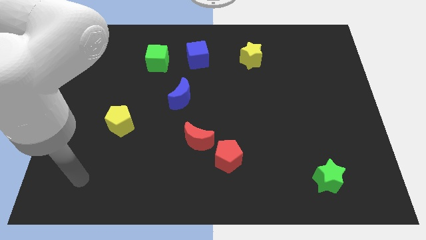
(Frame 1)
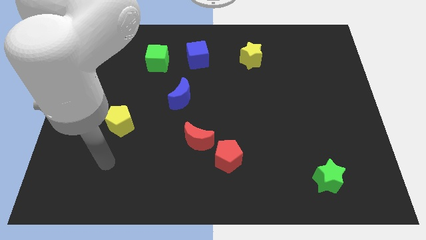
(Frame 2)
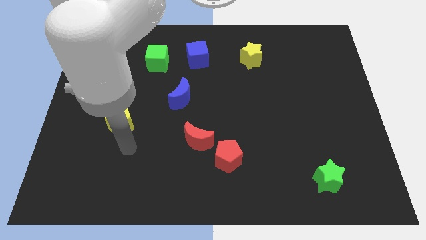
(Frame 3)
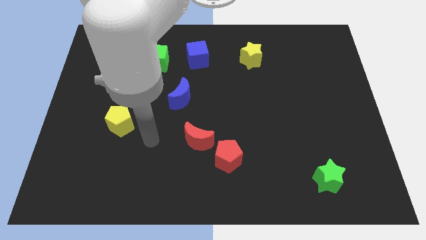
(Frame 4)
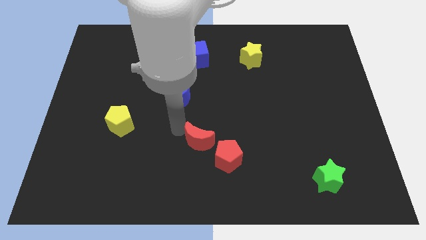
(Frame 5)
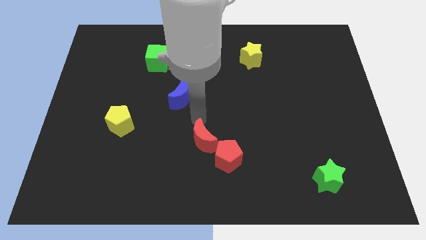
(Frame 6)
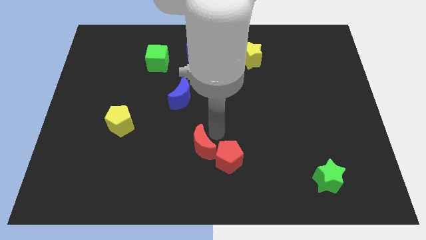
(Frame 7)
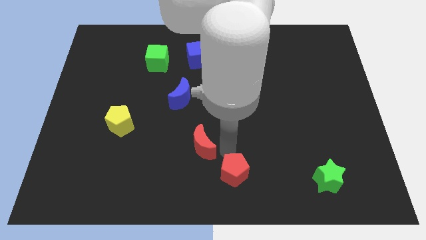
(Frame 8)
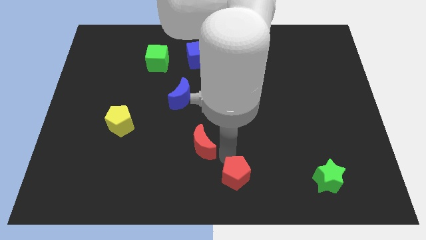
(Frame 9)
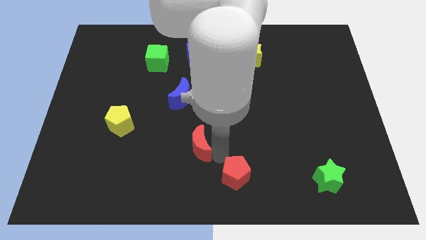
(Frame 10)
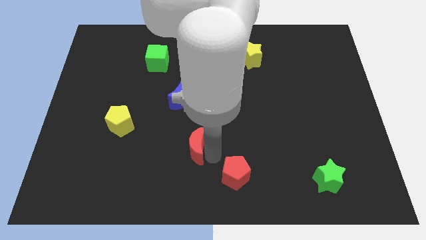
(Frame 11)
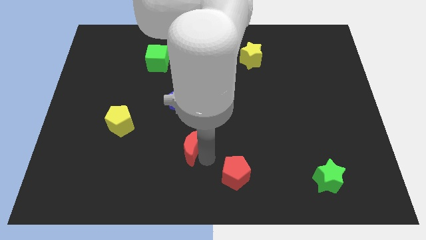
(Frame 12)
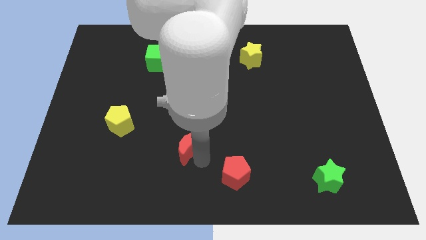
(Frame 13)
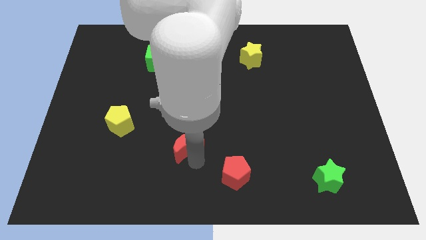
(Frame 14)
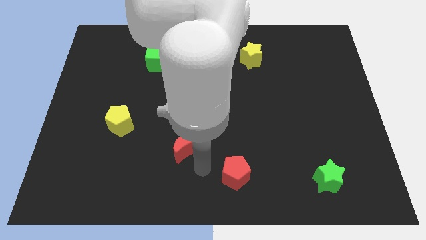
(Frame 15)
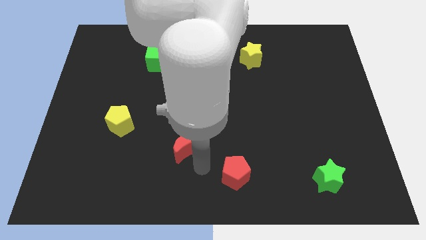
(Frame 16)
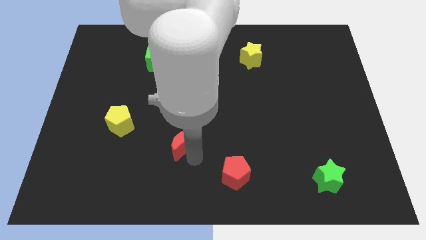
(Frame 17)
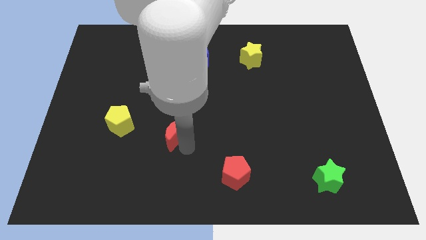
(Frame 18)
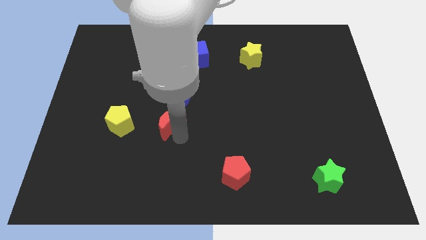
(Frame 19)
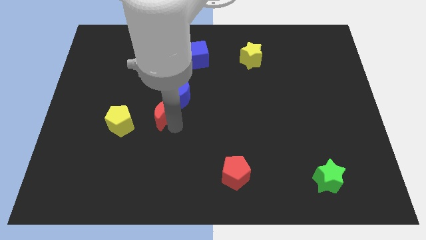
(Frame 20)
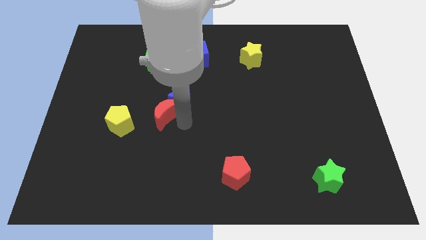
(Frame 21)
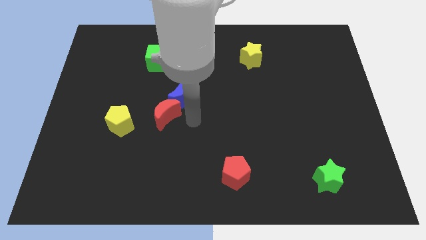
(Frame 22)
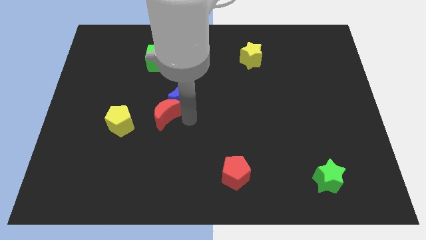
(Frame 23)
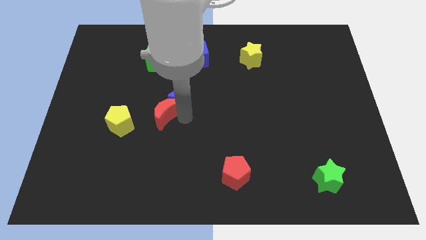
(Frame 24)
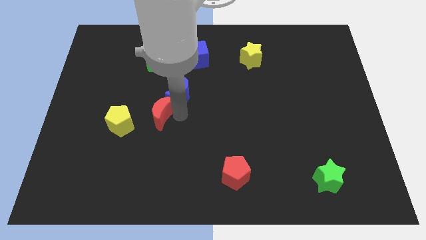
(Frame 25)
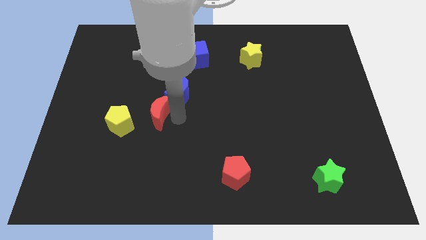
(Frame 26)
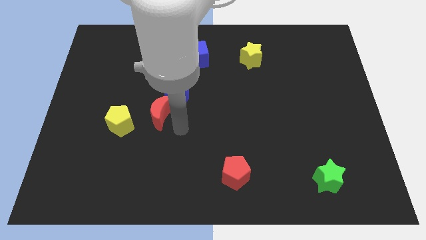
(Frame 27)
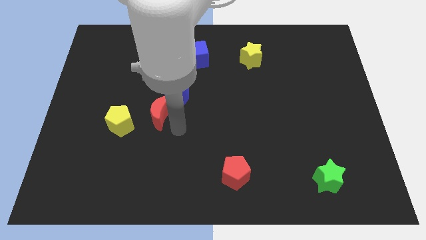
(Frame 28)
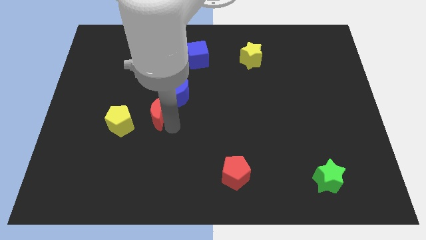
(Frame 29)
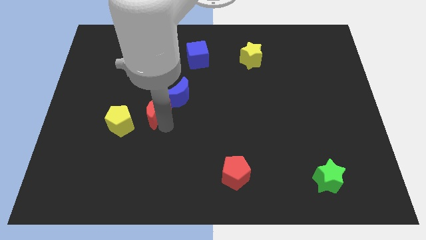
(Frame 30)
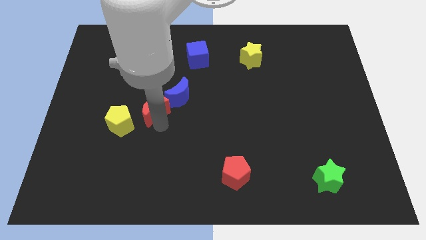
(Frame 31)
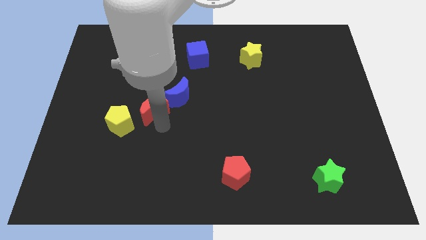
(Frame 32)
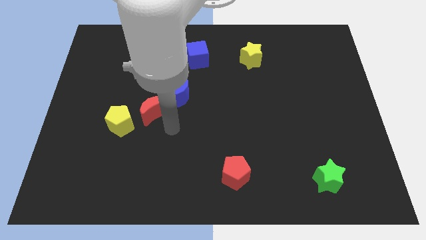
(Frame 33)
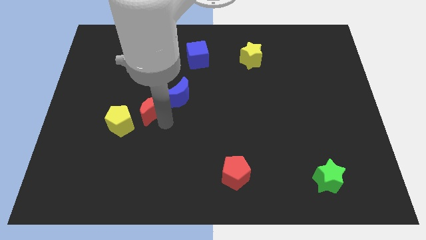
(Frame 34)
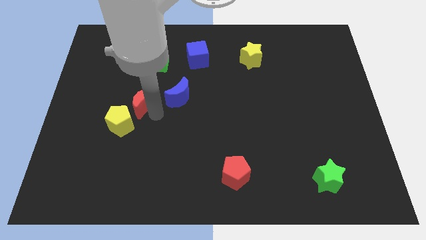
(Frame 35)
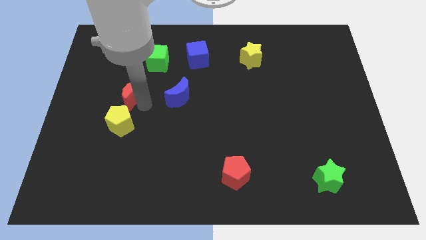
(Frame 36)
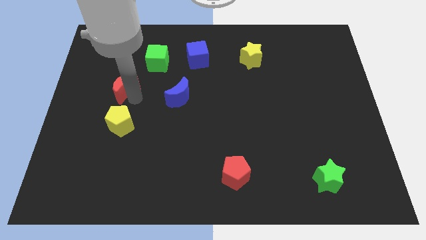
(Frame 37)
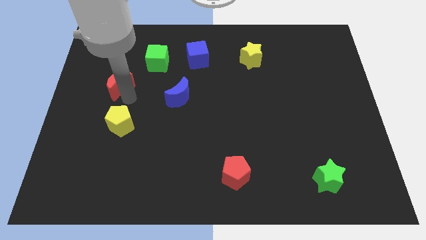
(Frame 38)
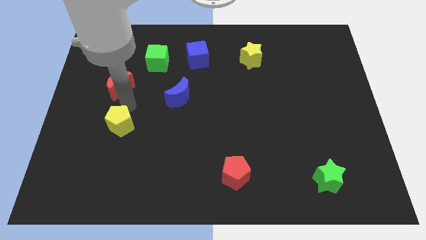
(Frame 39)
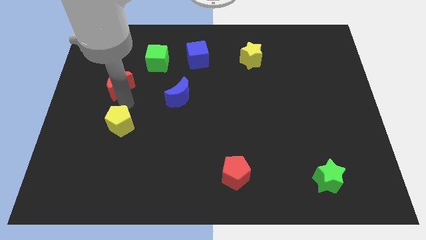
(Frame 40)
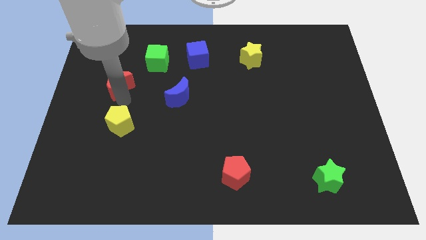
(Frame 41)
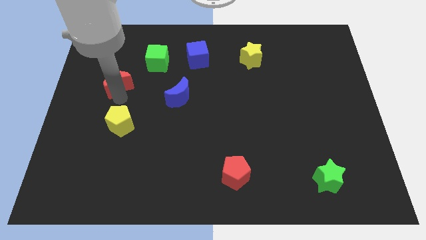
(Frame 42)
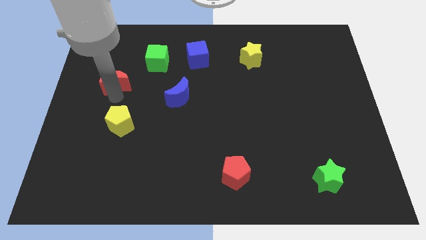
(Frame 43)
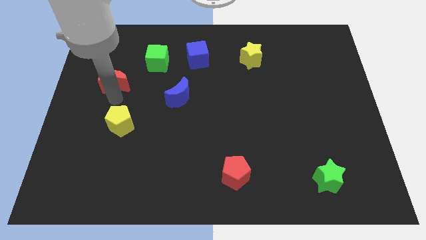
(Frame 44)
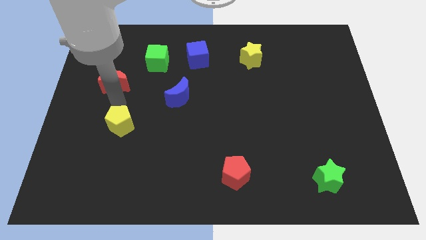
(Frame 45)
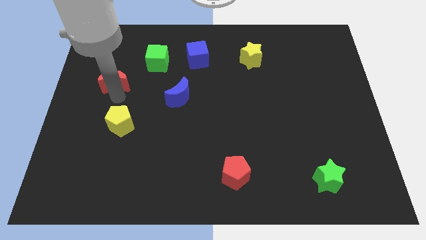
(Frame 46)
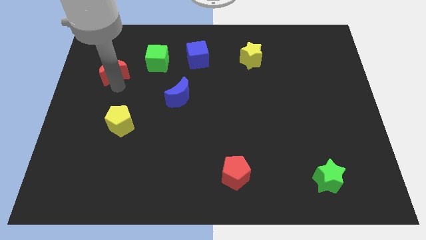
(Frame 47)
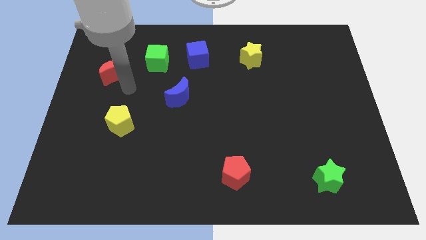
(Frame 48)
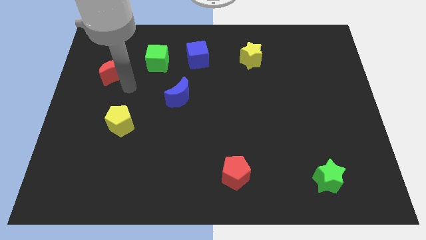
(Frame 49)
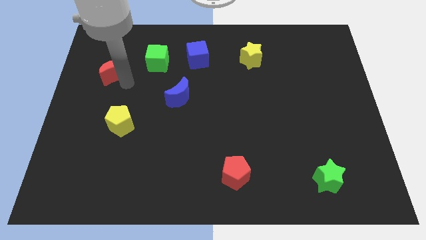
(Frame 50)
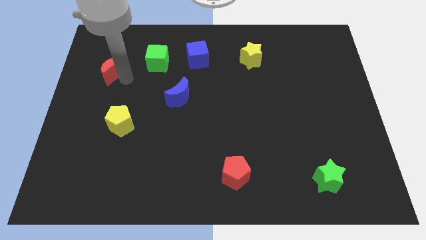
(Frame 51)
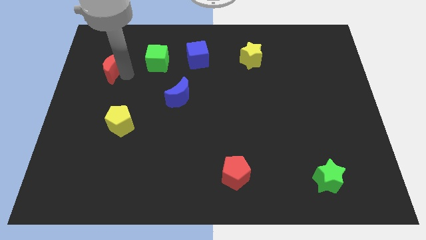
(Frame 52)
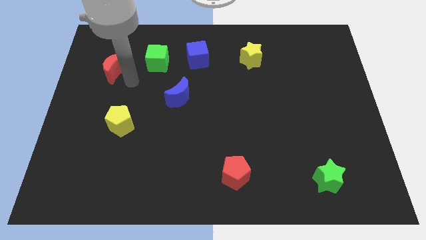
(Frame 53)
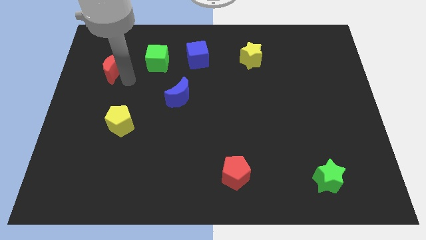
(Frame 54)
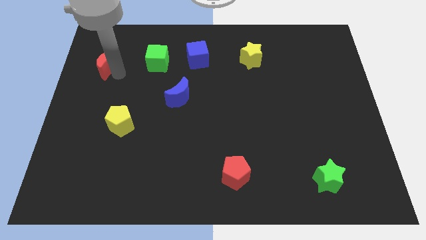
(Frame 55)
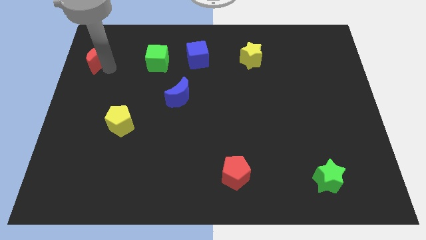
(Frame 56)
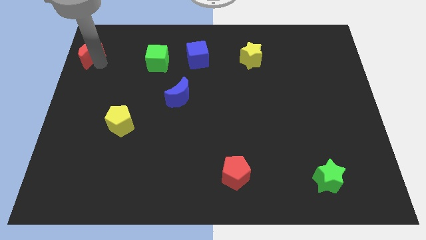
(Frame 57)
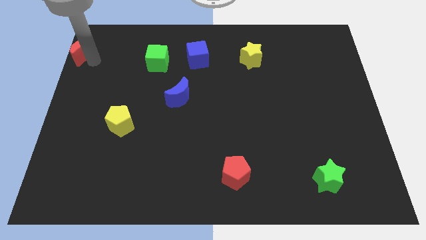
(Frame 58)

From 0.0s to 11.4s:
put the red moon to the top left corner

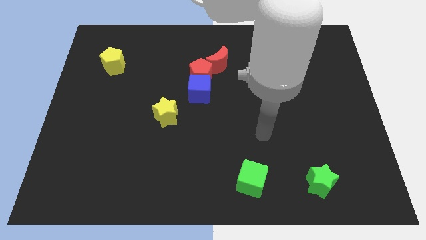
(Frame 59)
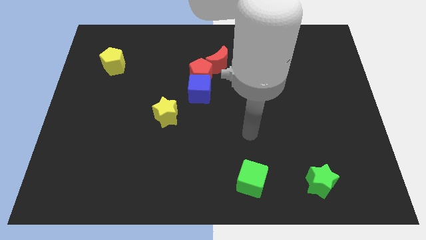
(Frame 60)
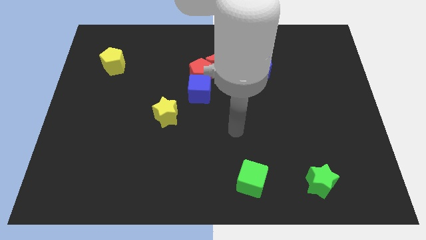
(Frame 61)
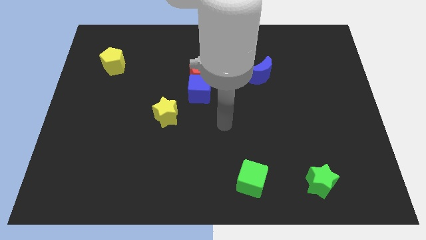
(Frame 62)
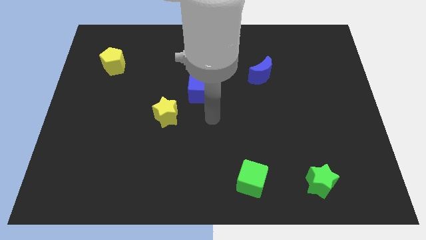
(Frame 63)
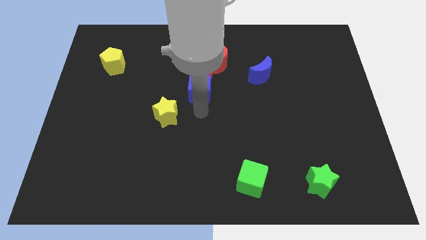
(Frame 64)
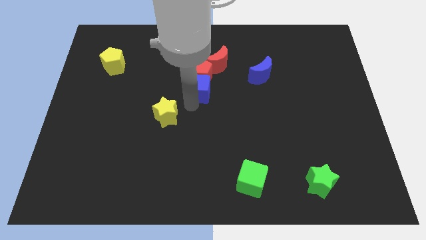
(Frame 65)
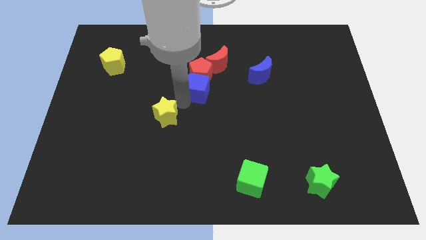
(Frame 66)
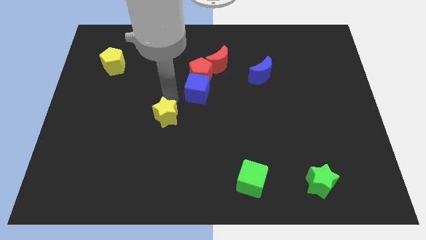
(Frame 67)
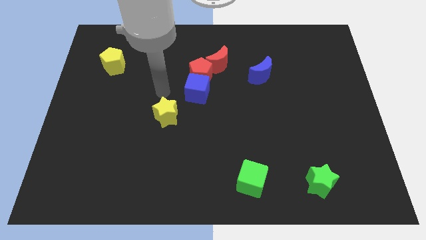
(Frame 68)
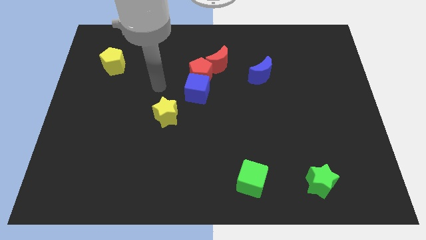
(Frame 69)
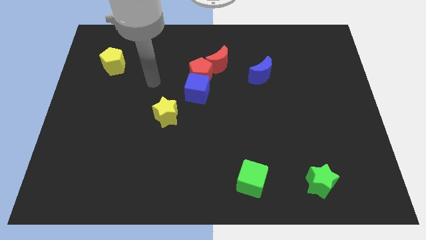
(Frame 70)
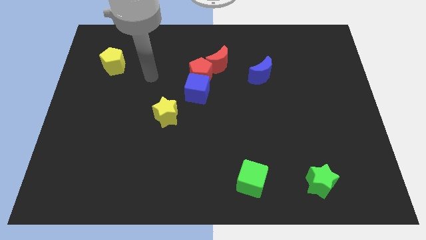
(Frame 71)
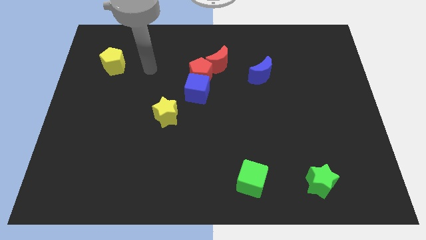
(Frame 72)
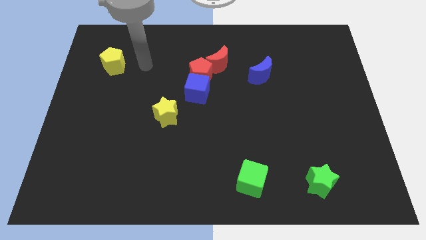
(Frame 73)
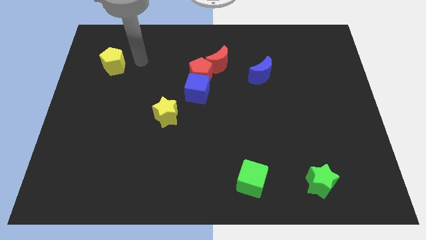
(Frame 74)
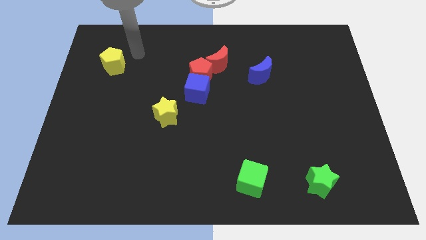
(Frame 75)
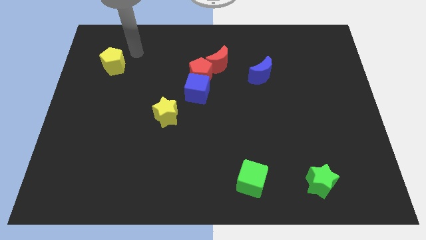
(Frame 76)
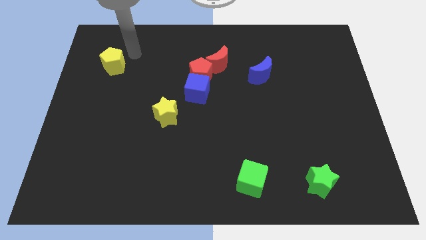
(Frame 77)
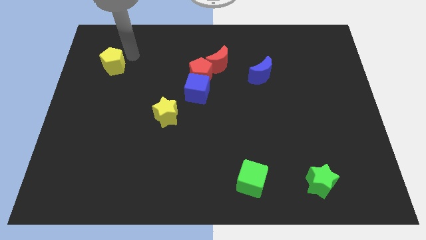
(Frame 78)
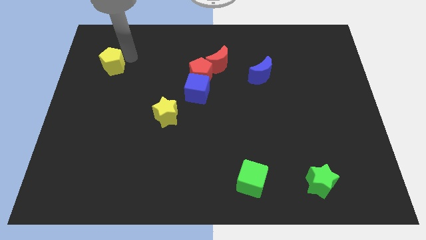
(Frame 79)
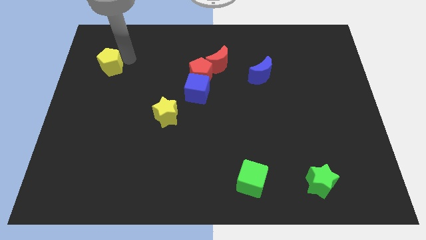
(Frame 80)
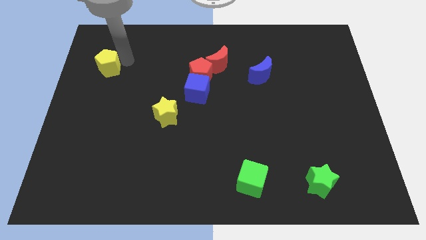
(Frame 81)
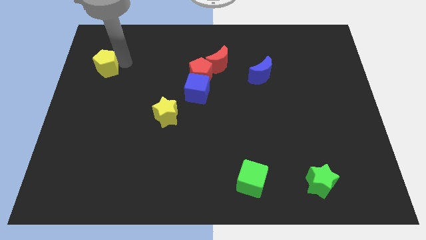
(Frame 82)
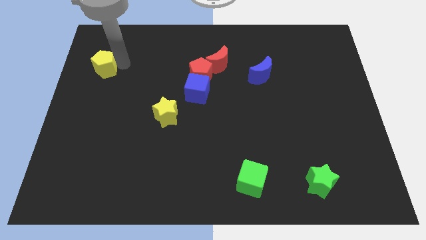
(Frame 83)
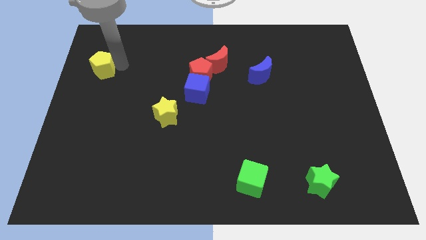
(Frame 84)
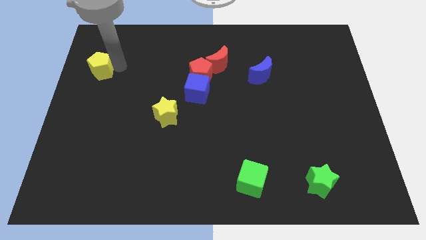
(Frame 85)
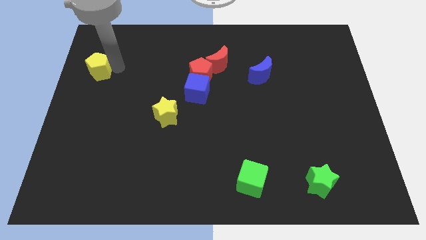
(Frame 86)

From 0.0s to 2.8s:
move the yellow pentagon to the left side
